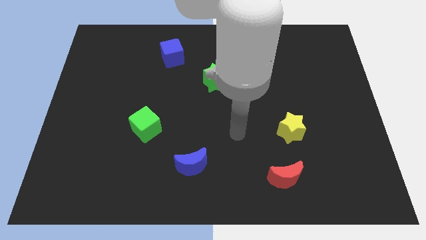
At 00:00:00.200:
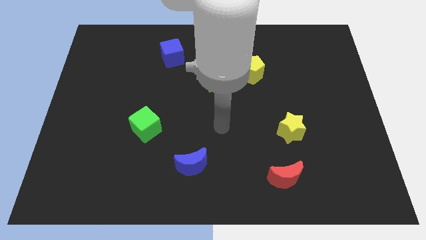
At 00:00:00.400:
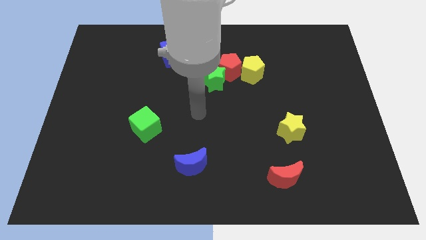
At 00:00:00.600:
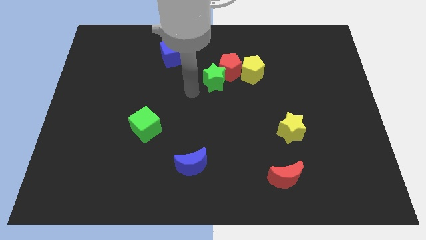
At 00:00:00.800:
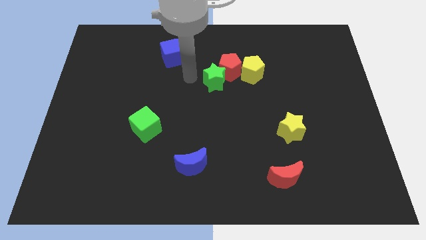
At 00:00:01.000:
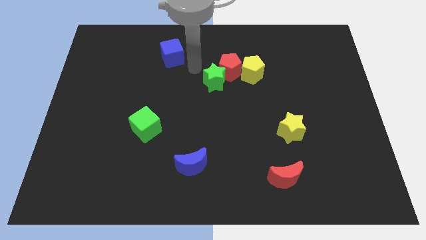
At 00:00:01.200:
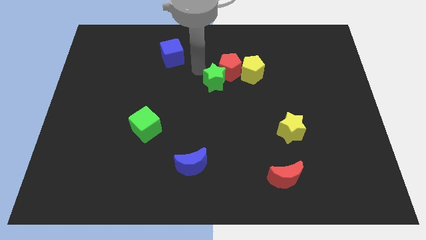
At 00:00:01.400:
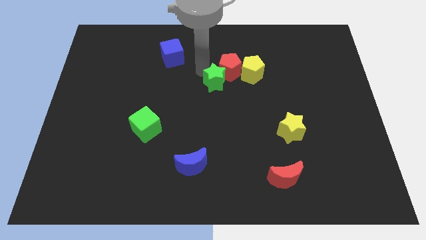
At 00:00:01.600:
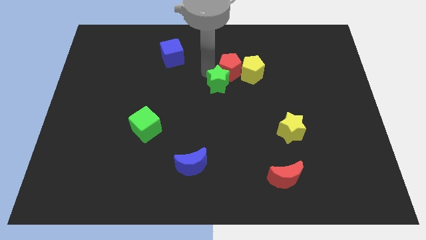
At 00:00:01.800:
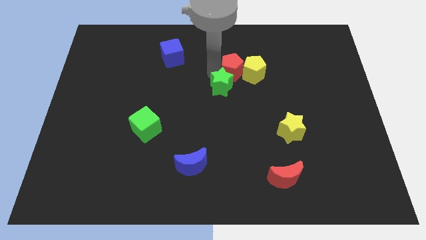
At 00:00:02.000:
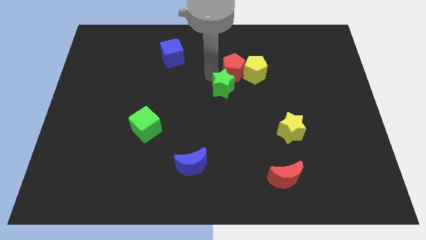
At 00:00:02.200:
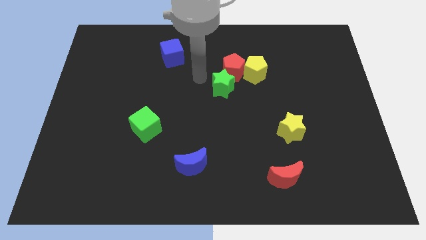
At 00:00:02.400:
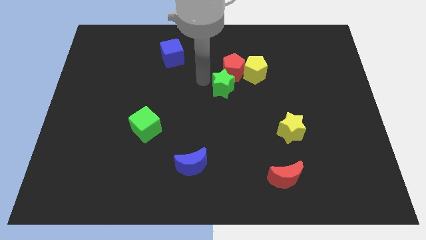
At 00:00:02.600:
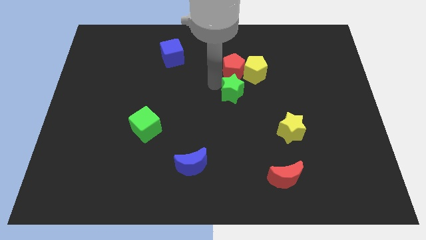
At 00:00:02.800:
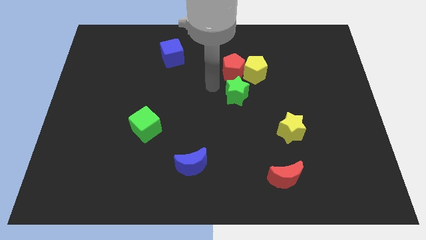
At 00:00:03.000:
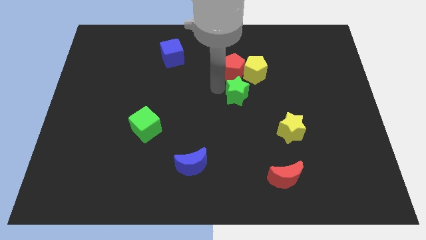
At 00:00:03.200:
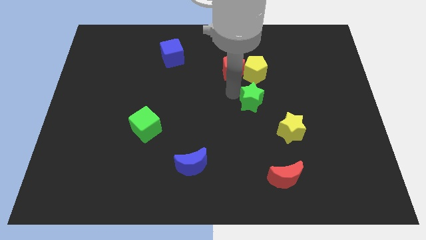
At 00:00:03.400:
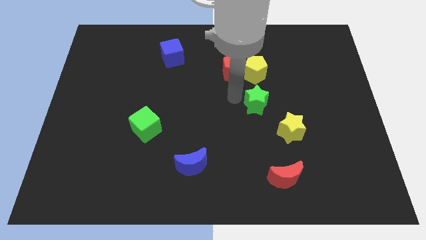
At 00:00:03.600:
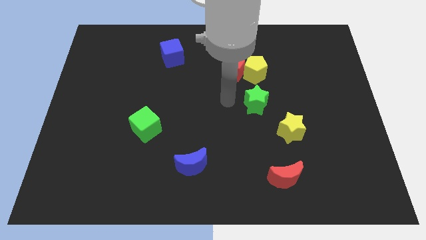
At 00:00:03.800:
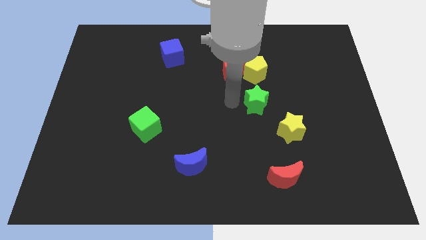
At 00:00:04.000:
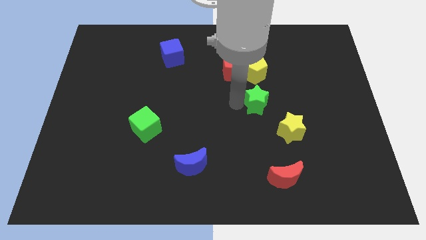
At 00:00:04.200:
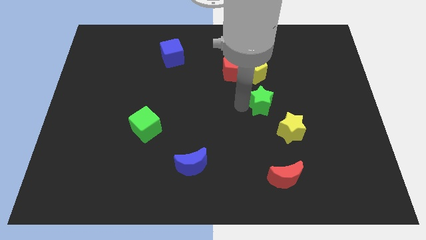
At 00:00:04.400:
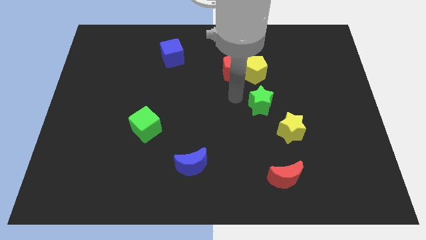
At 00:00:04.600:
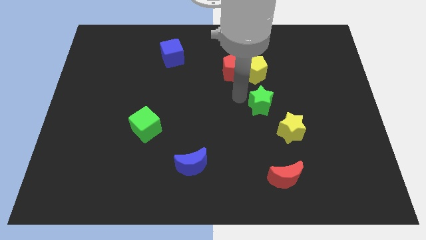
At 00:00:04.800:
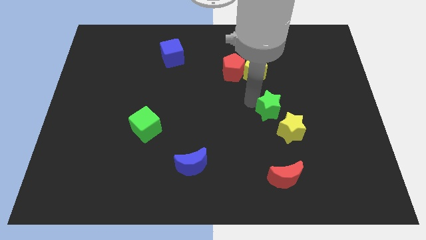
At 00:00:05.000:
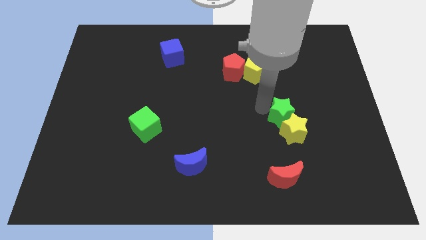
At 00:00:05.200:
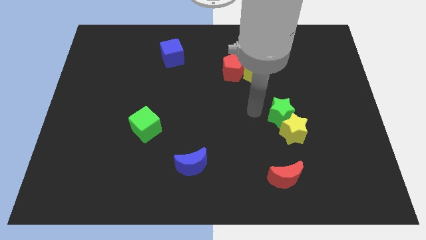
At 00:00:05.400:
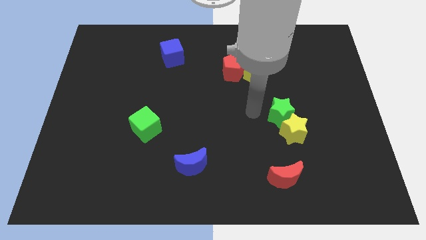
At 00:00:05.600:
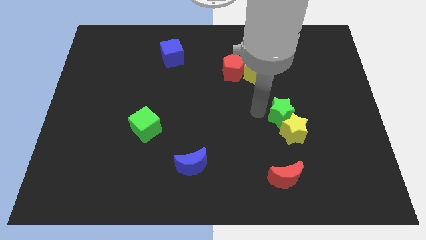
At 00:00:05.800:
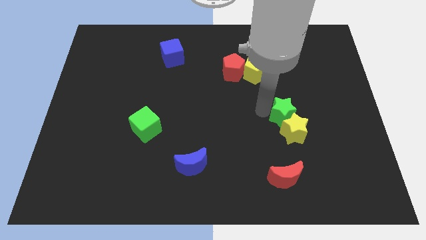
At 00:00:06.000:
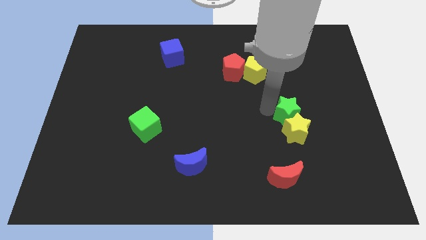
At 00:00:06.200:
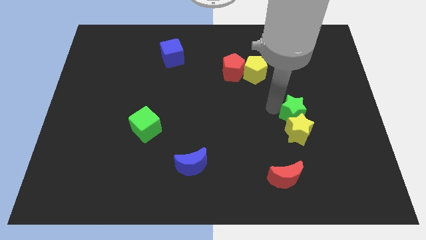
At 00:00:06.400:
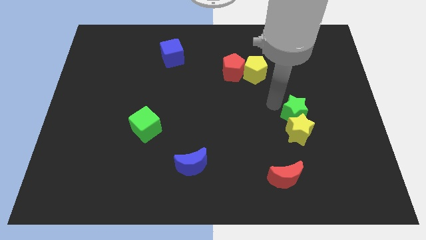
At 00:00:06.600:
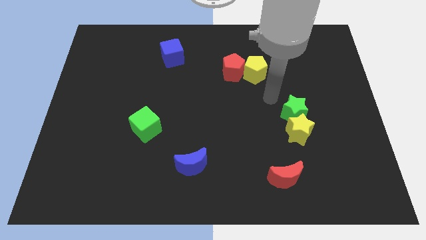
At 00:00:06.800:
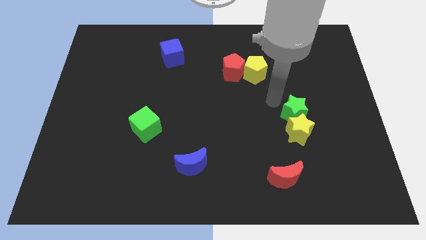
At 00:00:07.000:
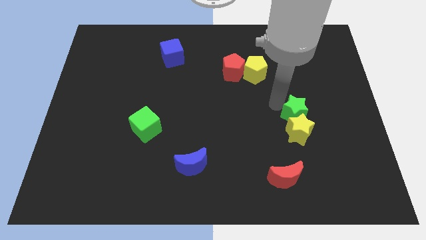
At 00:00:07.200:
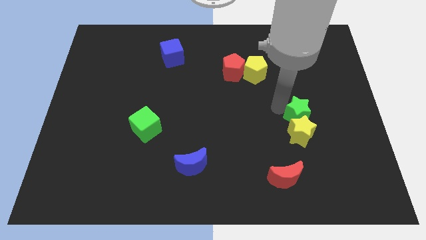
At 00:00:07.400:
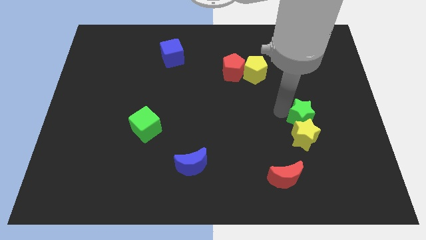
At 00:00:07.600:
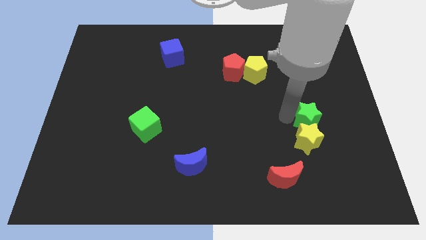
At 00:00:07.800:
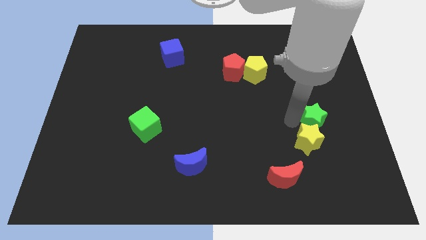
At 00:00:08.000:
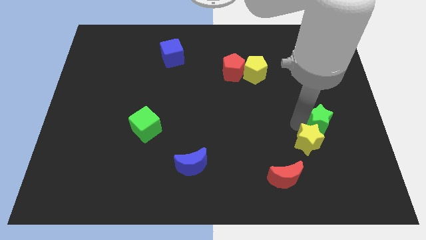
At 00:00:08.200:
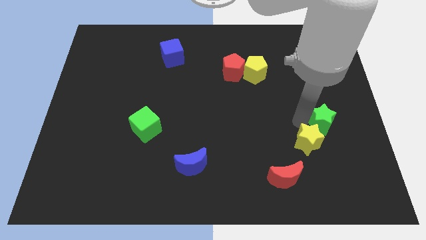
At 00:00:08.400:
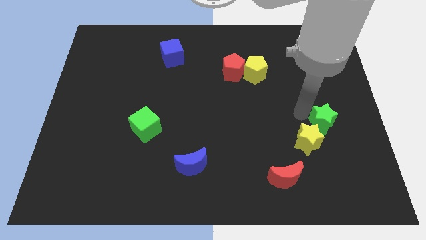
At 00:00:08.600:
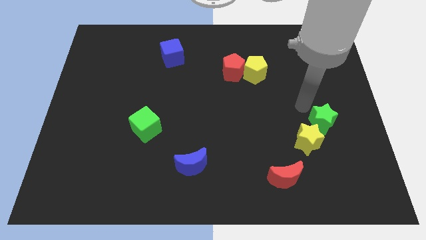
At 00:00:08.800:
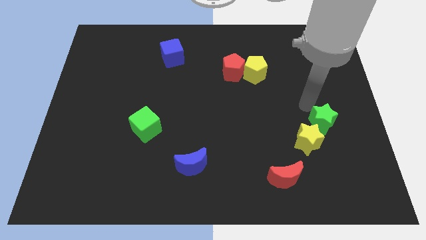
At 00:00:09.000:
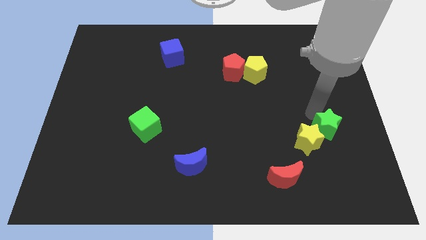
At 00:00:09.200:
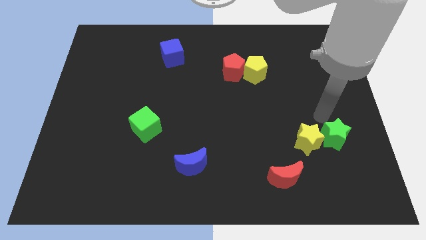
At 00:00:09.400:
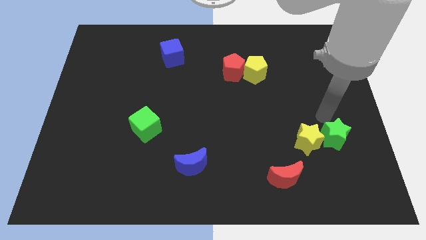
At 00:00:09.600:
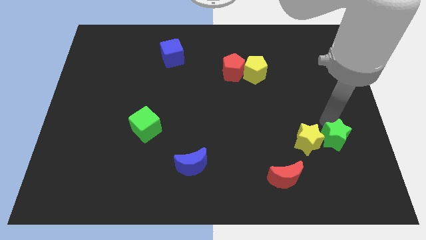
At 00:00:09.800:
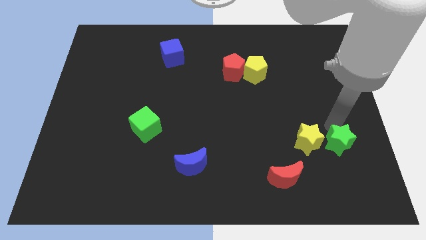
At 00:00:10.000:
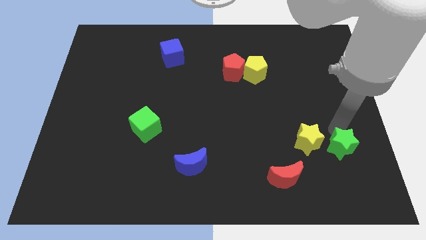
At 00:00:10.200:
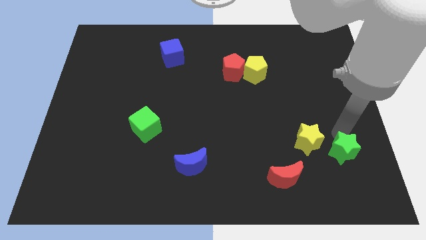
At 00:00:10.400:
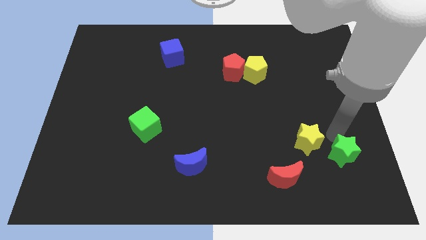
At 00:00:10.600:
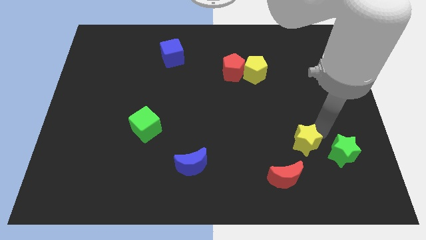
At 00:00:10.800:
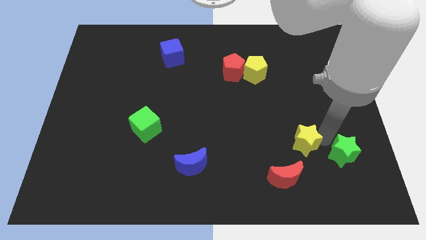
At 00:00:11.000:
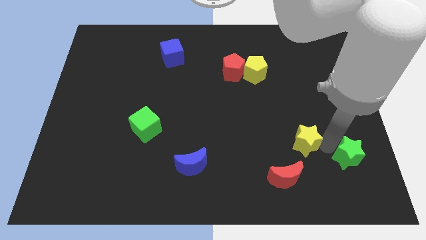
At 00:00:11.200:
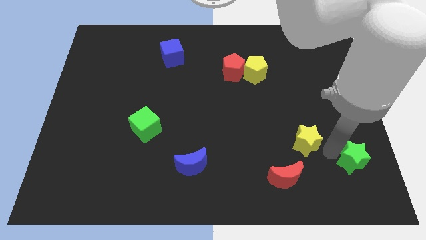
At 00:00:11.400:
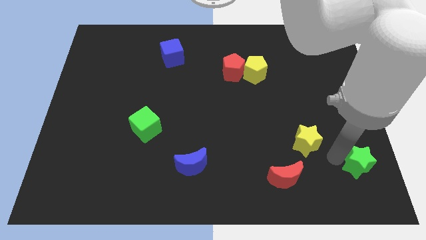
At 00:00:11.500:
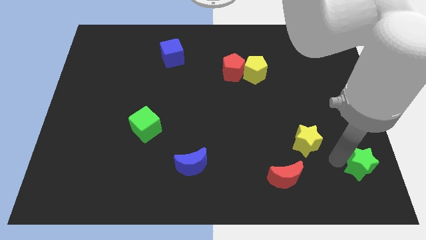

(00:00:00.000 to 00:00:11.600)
push the green star to the bottom right

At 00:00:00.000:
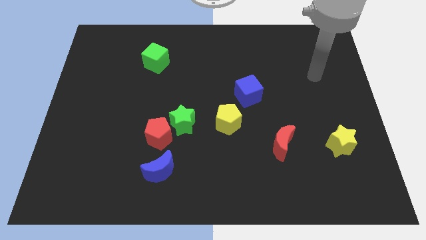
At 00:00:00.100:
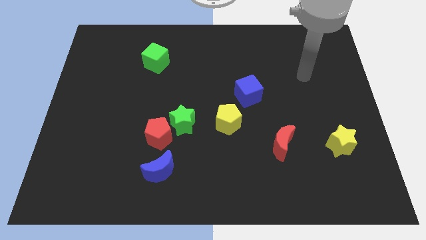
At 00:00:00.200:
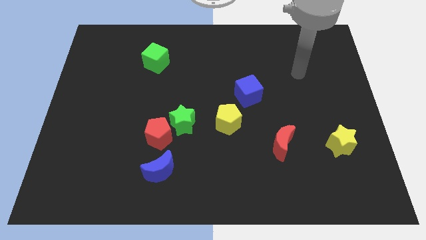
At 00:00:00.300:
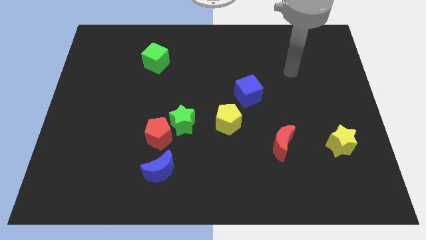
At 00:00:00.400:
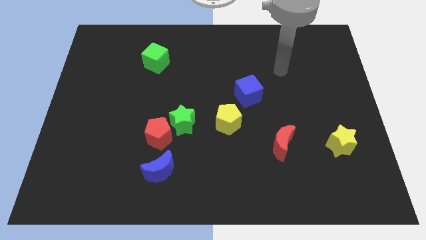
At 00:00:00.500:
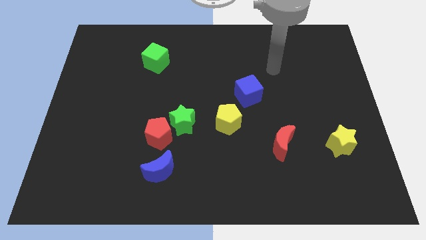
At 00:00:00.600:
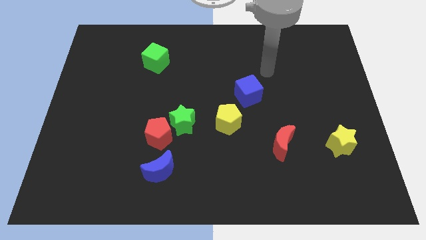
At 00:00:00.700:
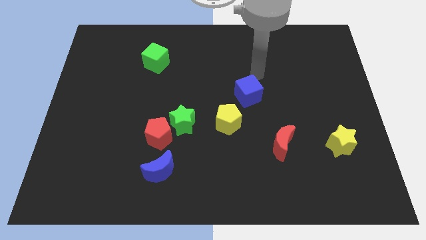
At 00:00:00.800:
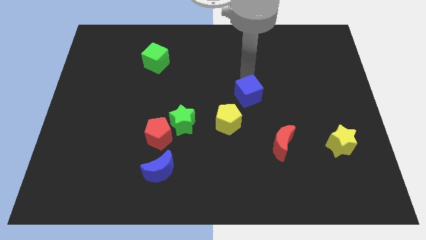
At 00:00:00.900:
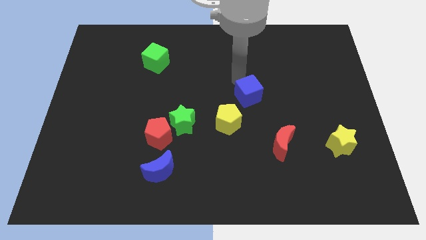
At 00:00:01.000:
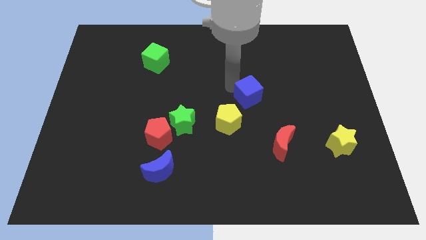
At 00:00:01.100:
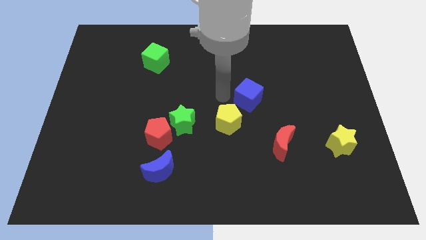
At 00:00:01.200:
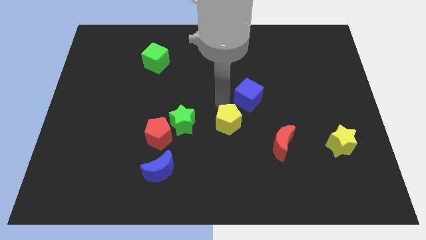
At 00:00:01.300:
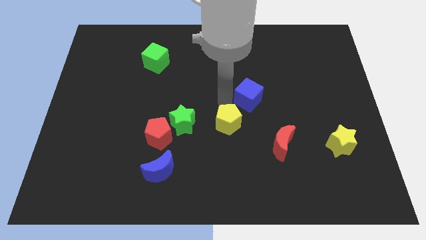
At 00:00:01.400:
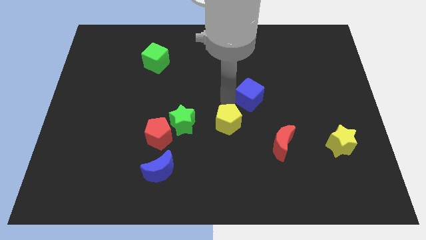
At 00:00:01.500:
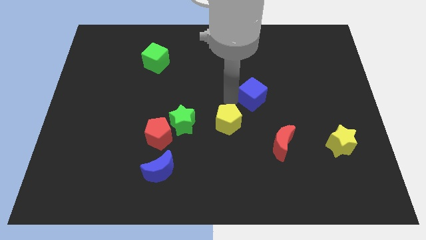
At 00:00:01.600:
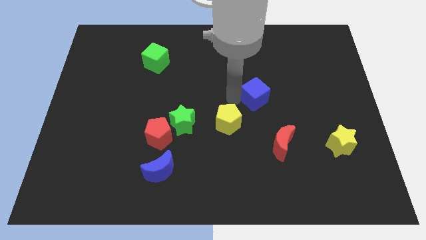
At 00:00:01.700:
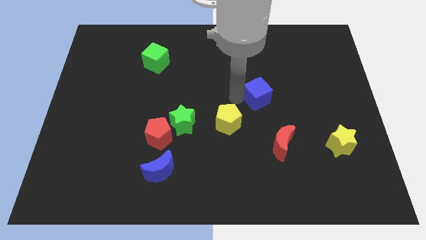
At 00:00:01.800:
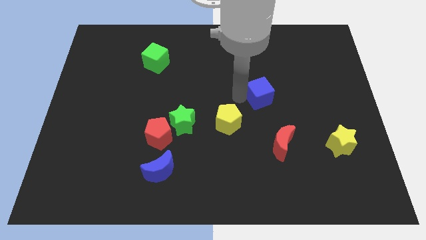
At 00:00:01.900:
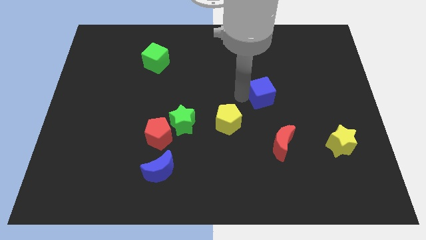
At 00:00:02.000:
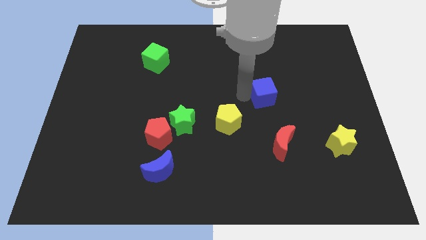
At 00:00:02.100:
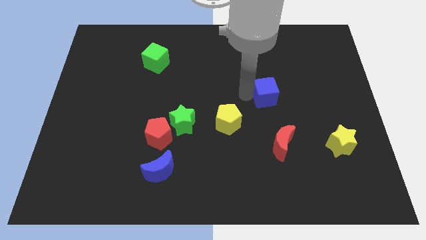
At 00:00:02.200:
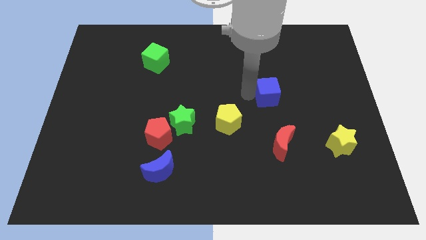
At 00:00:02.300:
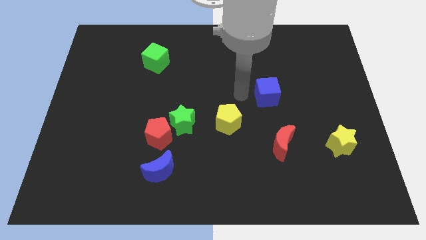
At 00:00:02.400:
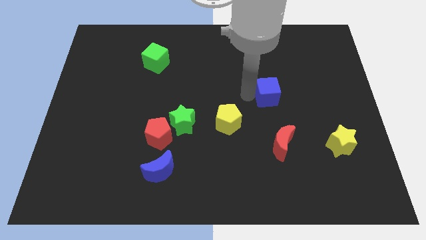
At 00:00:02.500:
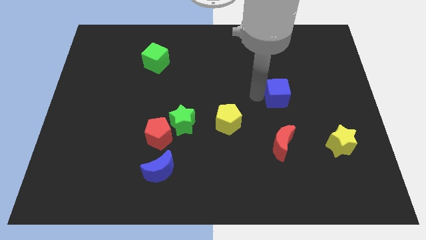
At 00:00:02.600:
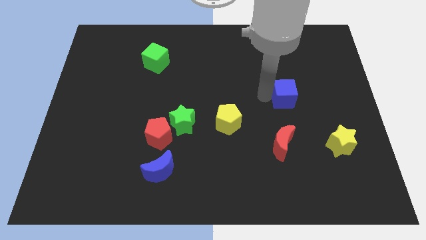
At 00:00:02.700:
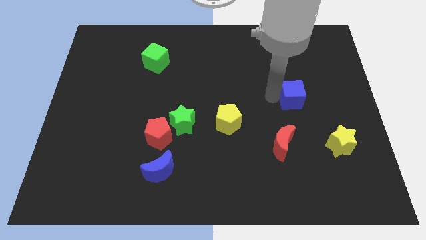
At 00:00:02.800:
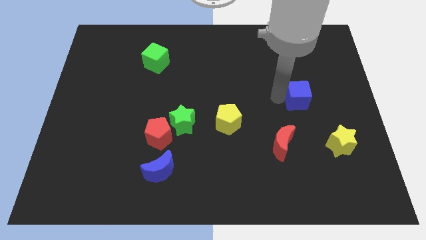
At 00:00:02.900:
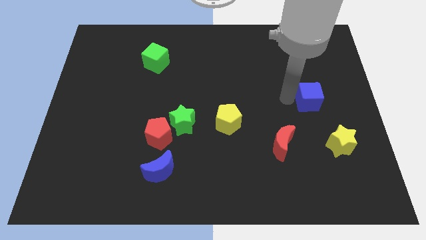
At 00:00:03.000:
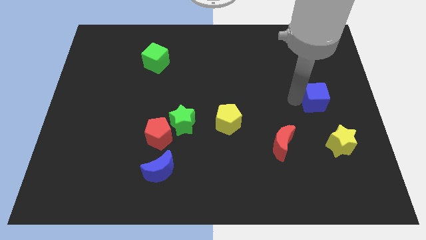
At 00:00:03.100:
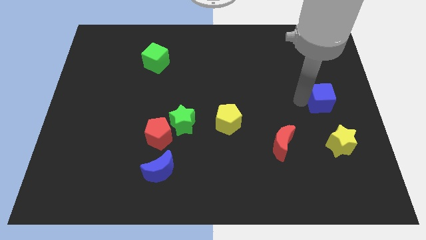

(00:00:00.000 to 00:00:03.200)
slide the blue cube to the right side of the board
